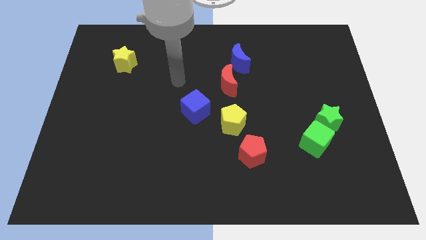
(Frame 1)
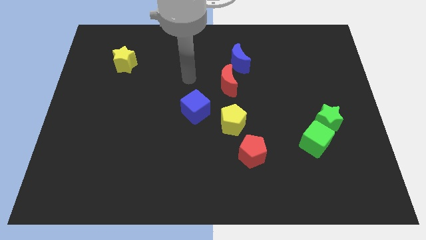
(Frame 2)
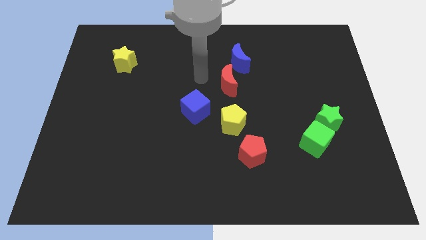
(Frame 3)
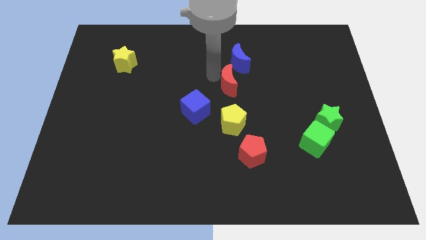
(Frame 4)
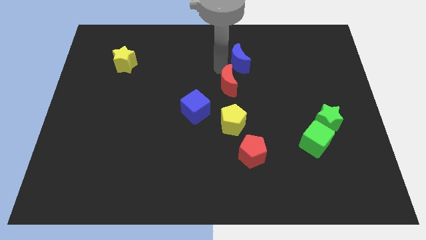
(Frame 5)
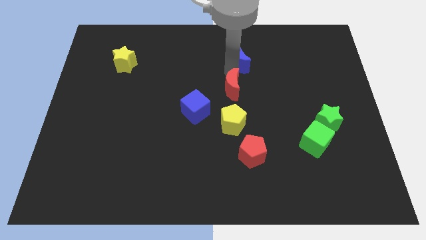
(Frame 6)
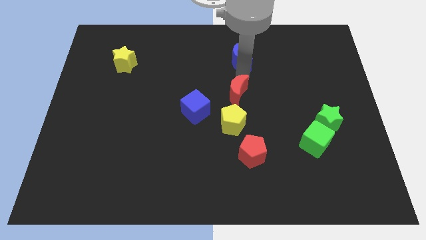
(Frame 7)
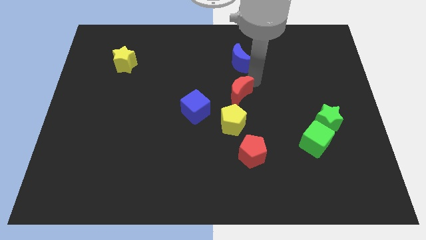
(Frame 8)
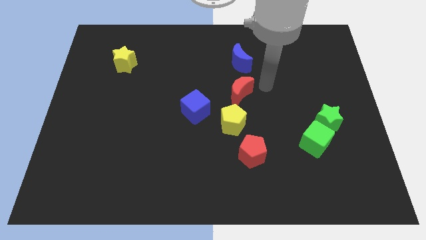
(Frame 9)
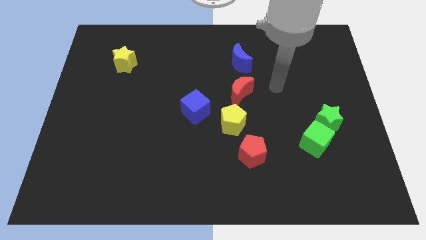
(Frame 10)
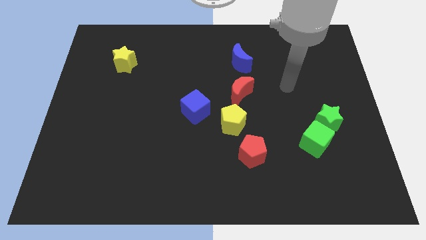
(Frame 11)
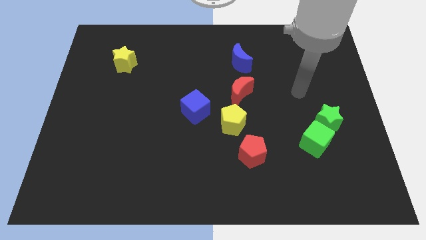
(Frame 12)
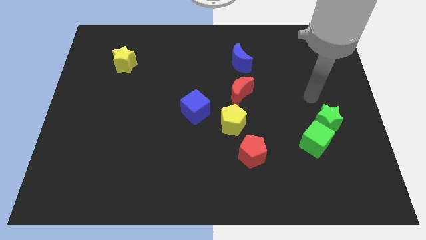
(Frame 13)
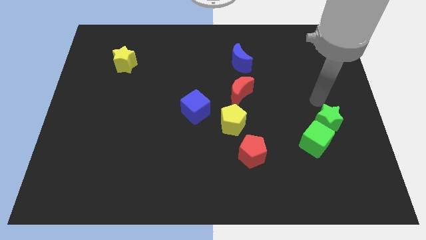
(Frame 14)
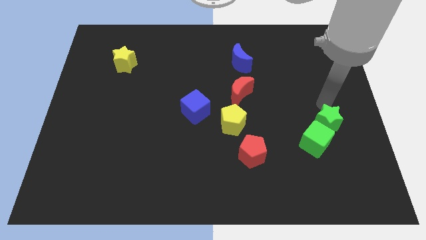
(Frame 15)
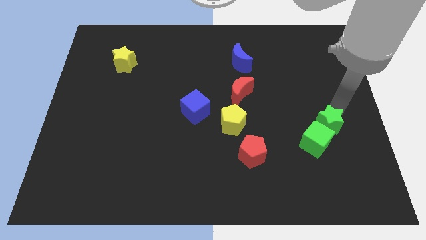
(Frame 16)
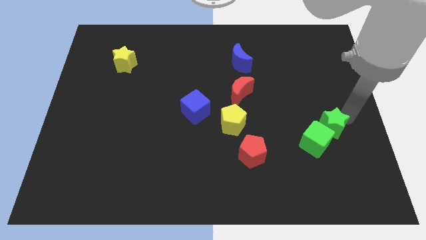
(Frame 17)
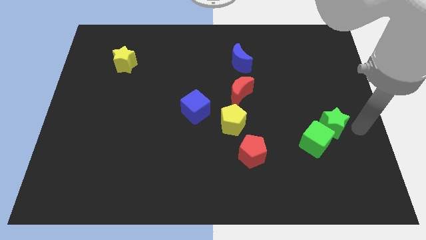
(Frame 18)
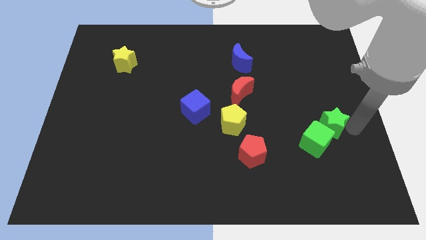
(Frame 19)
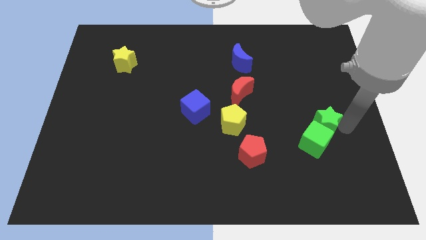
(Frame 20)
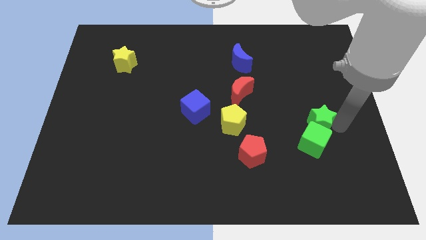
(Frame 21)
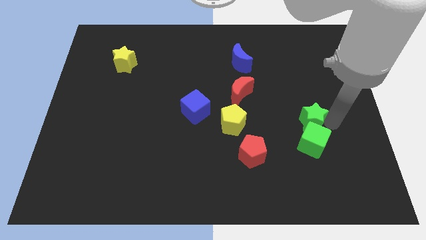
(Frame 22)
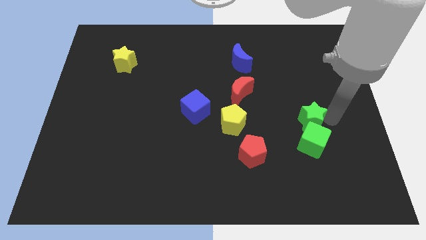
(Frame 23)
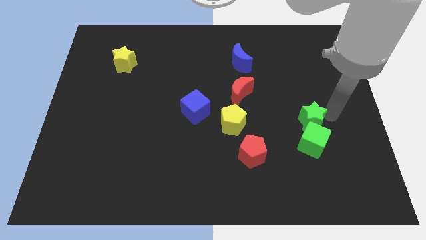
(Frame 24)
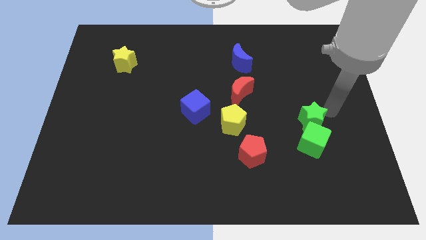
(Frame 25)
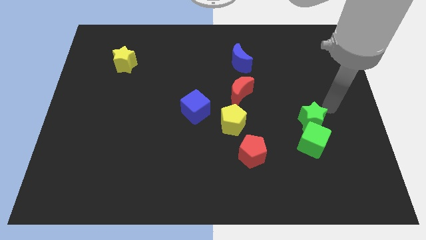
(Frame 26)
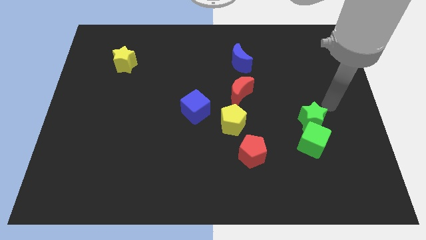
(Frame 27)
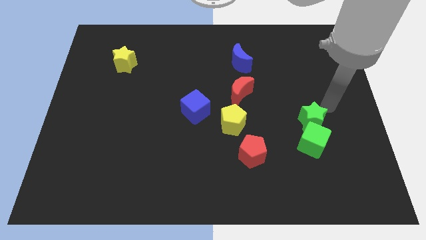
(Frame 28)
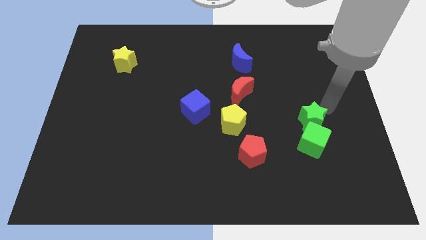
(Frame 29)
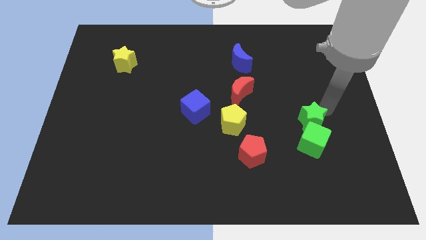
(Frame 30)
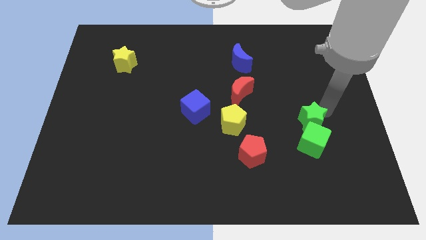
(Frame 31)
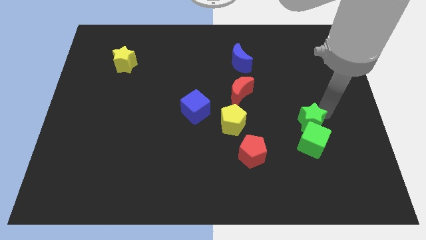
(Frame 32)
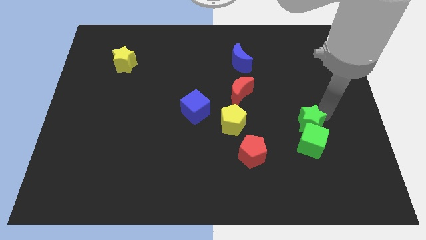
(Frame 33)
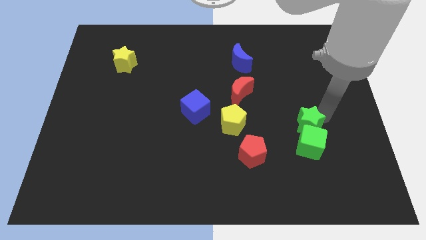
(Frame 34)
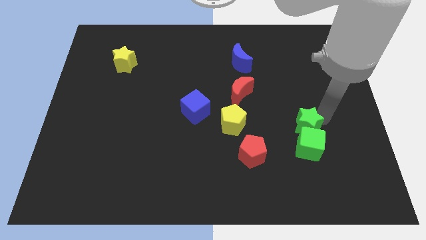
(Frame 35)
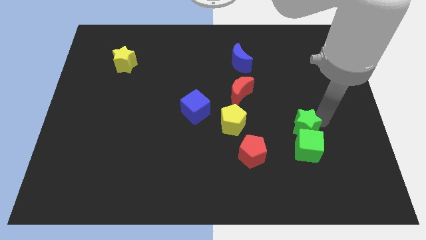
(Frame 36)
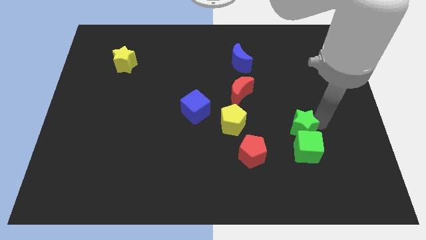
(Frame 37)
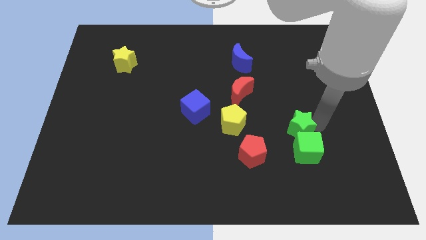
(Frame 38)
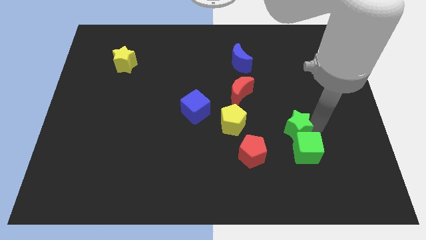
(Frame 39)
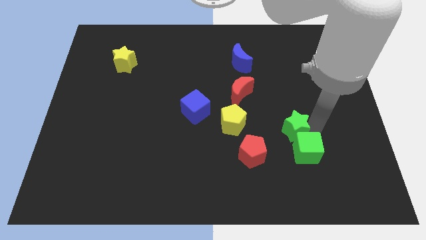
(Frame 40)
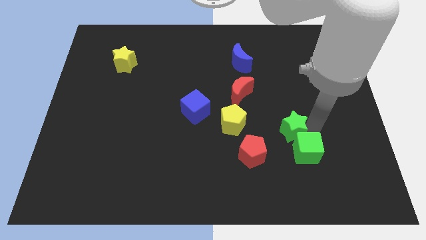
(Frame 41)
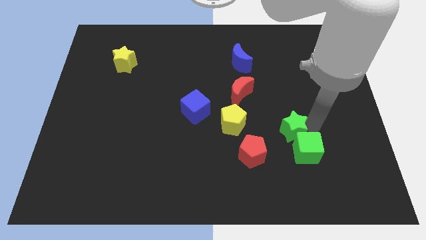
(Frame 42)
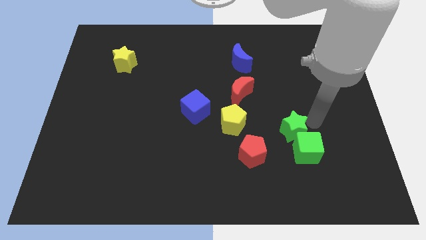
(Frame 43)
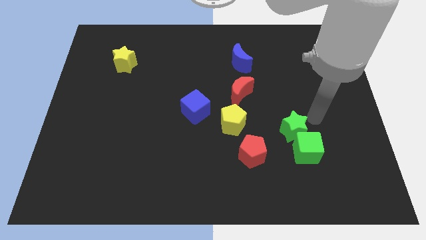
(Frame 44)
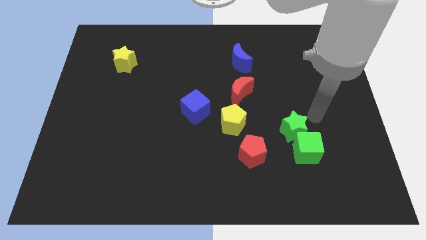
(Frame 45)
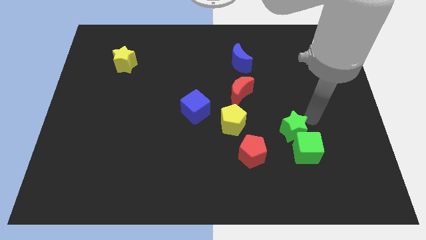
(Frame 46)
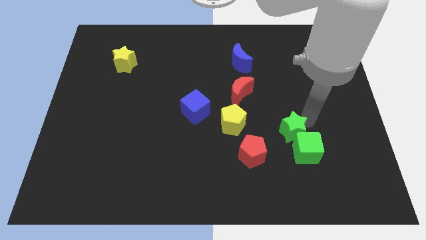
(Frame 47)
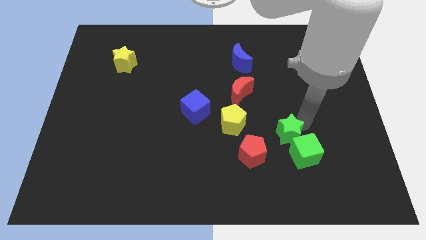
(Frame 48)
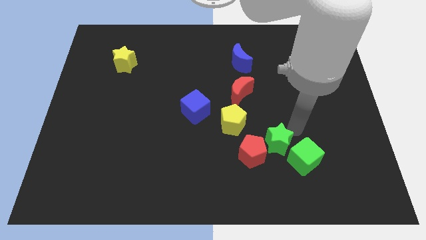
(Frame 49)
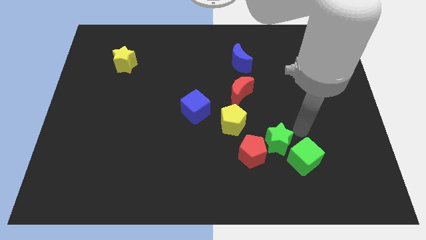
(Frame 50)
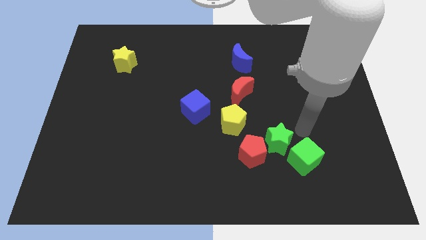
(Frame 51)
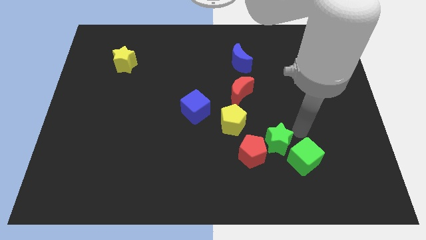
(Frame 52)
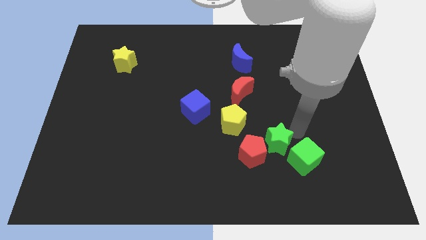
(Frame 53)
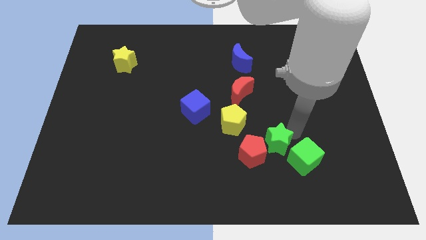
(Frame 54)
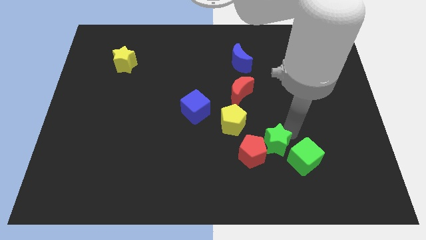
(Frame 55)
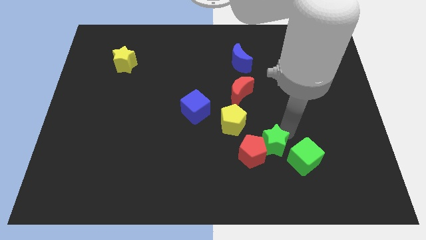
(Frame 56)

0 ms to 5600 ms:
move the green star towards the red pentagon

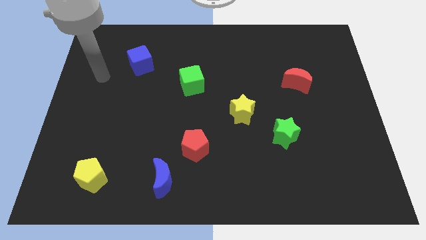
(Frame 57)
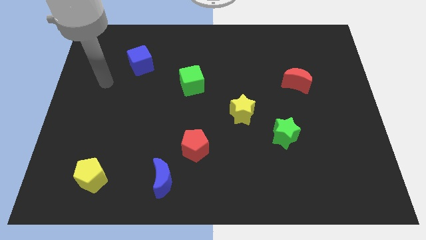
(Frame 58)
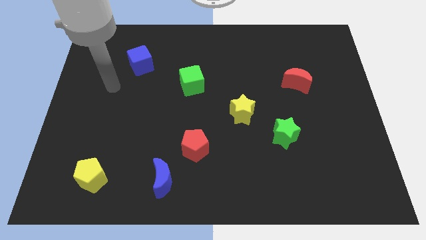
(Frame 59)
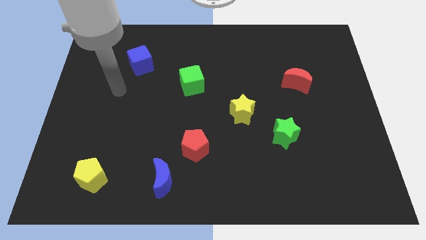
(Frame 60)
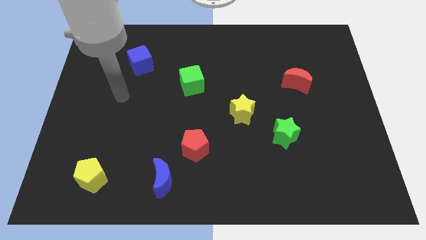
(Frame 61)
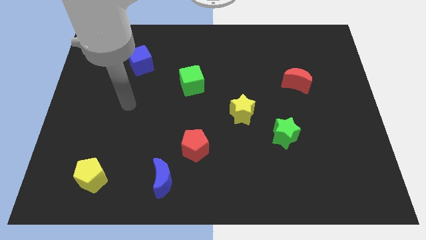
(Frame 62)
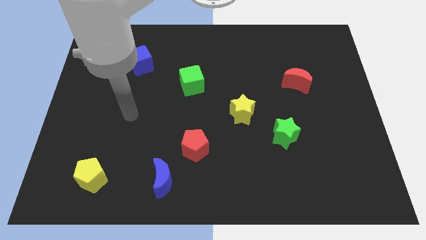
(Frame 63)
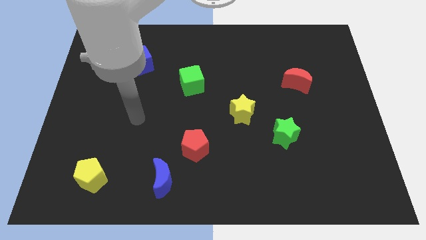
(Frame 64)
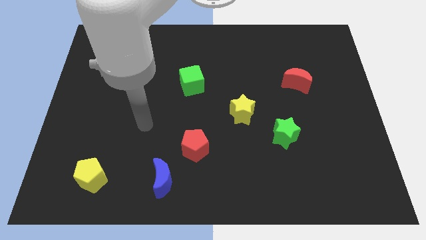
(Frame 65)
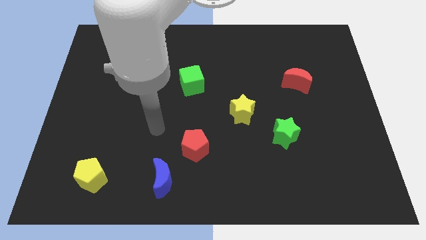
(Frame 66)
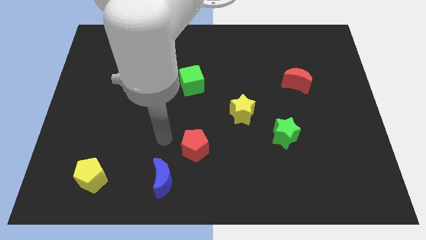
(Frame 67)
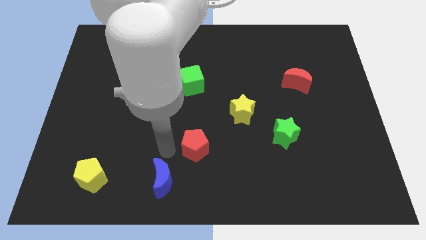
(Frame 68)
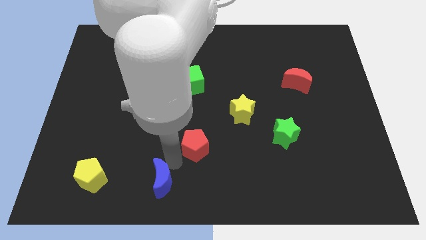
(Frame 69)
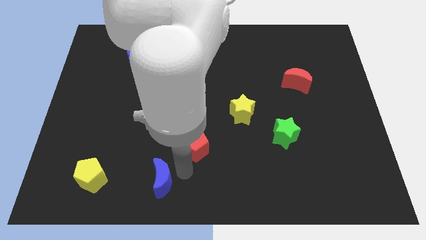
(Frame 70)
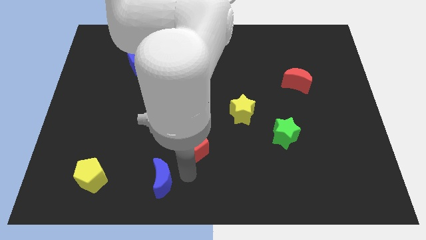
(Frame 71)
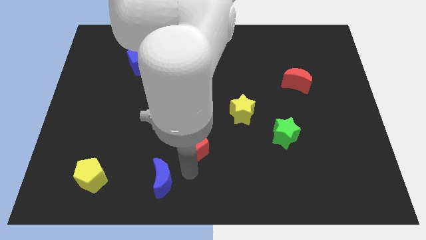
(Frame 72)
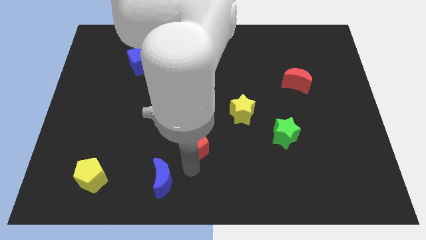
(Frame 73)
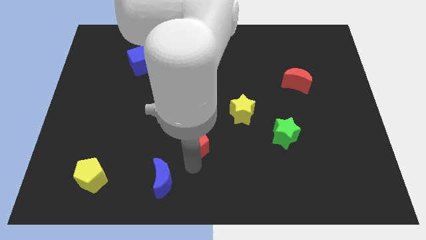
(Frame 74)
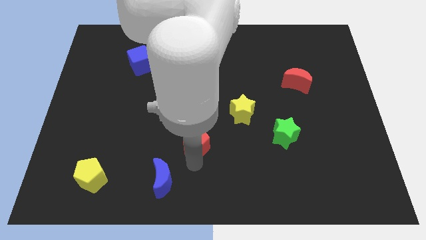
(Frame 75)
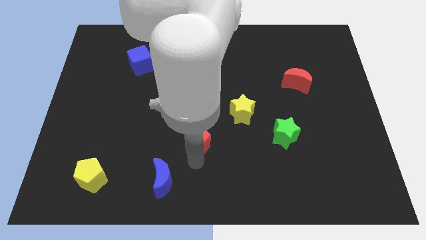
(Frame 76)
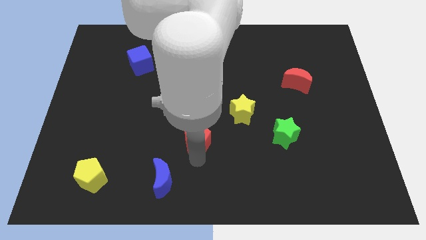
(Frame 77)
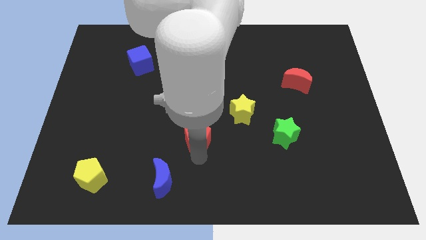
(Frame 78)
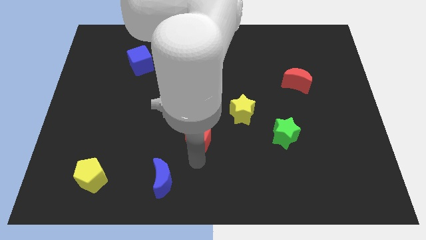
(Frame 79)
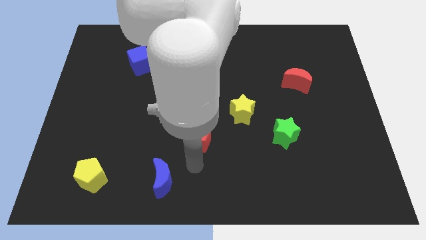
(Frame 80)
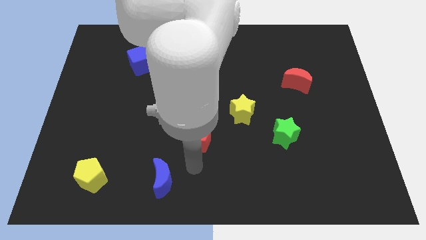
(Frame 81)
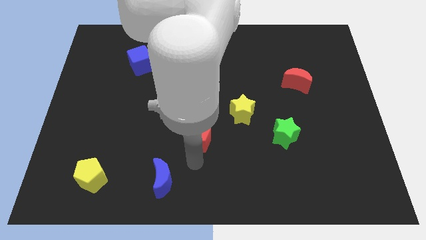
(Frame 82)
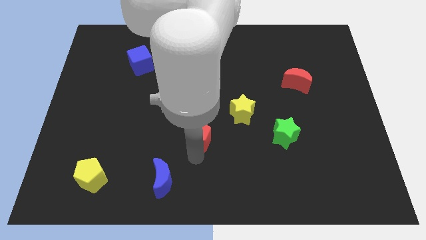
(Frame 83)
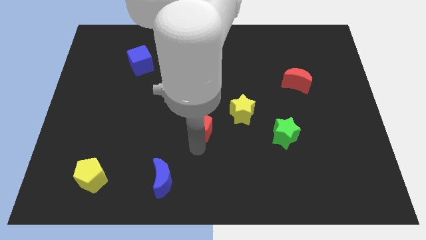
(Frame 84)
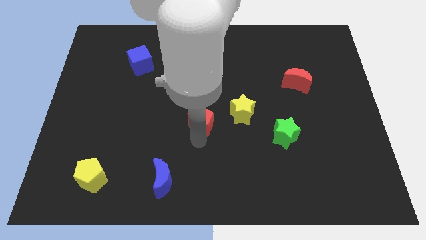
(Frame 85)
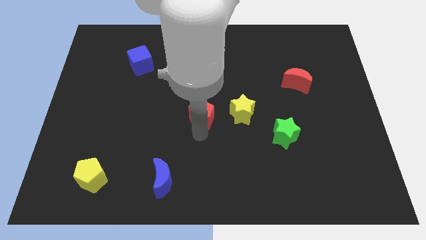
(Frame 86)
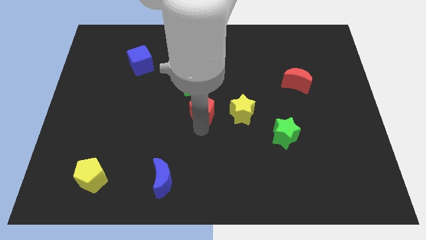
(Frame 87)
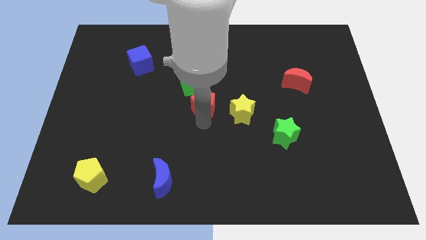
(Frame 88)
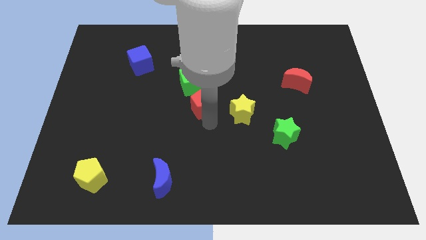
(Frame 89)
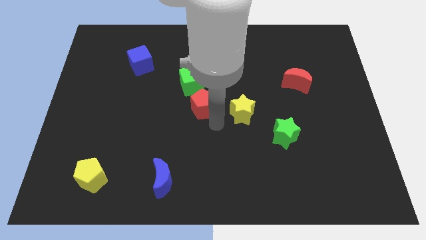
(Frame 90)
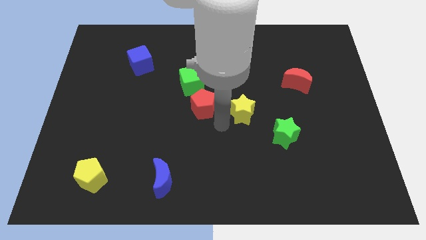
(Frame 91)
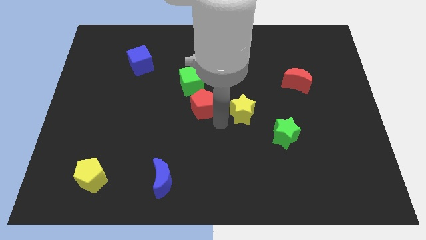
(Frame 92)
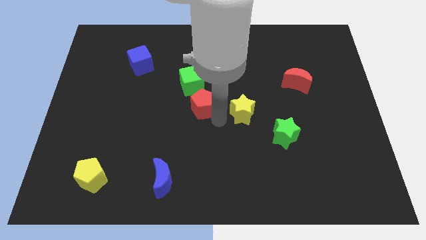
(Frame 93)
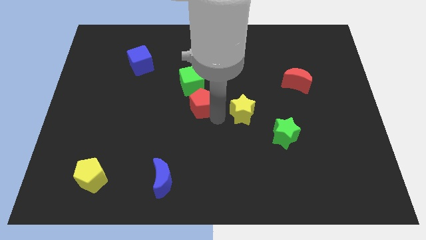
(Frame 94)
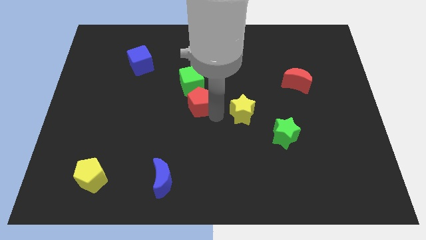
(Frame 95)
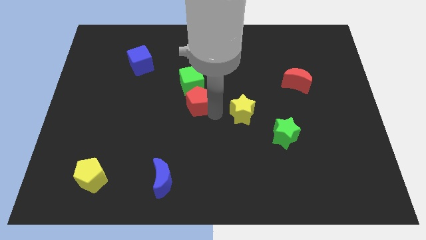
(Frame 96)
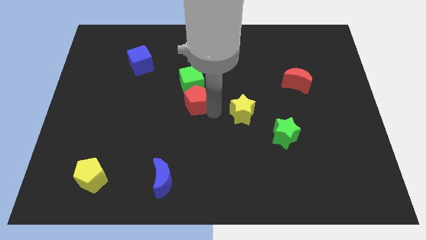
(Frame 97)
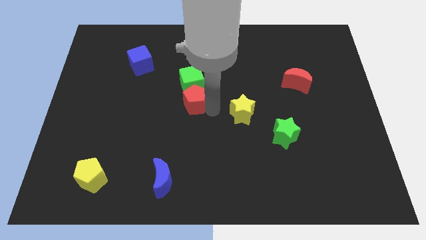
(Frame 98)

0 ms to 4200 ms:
push the red pentagon to the green cube
